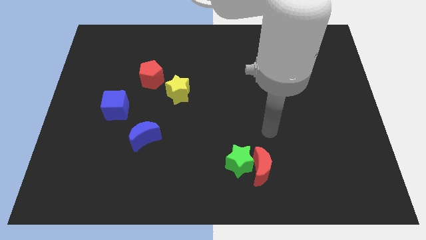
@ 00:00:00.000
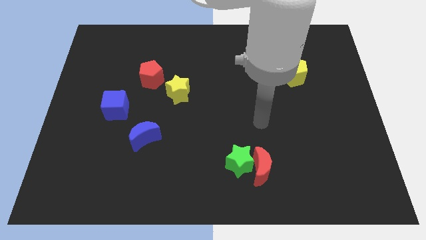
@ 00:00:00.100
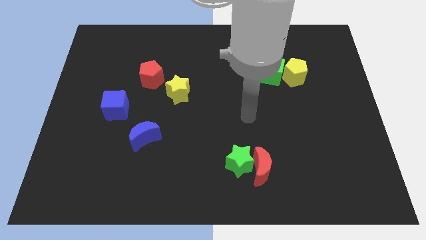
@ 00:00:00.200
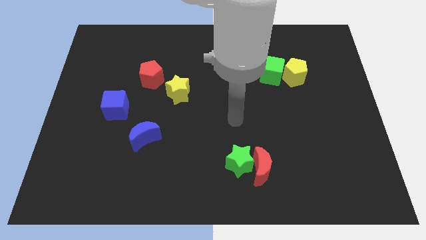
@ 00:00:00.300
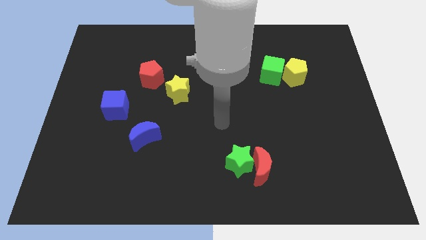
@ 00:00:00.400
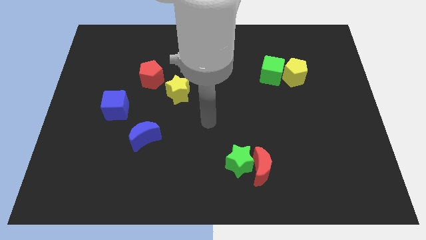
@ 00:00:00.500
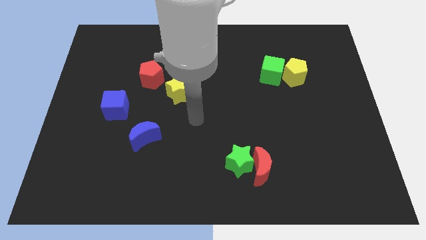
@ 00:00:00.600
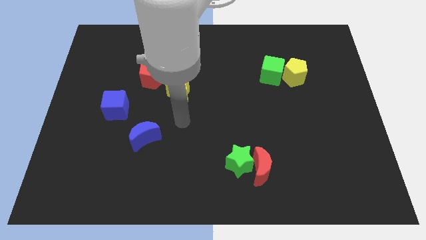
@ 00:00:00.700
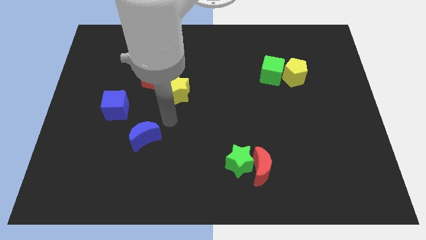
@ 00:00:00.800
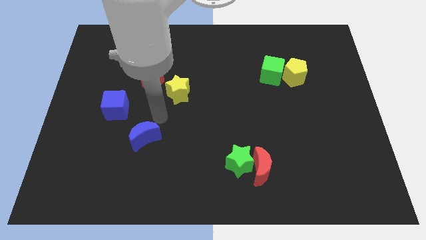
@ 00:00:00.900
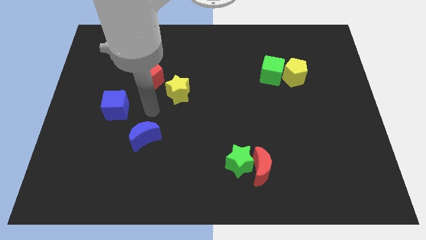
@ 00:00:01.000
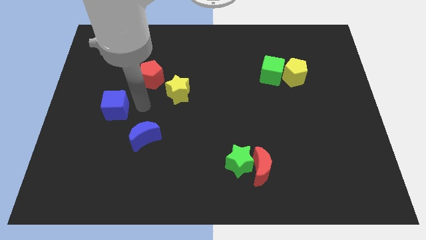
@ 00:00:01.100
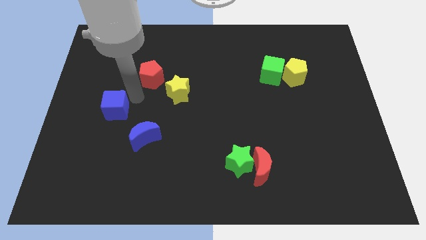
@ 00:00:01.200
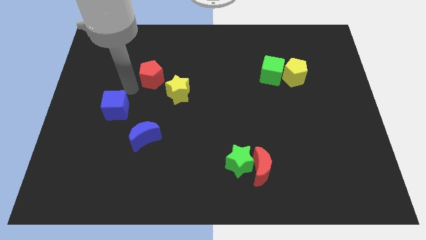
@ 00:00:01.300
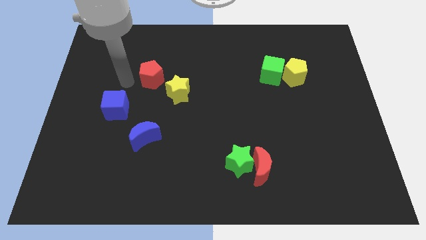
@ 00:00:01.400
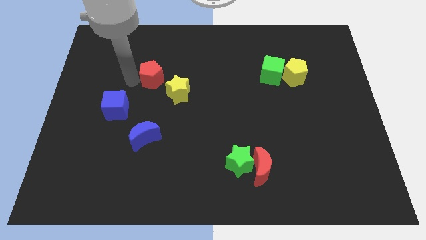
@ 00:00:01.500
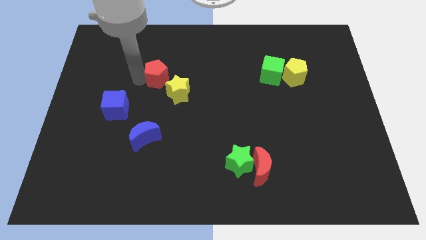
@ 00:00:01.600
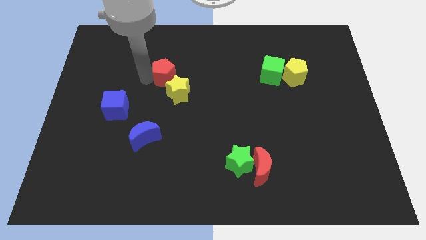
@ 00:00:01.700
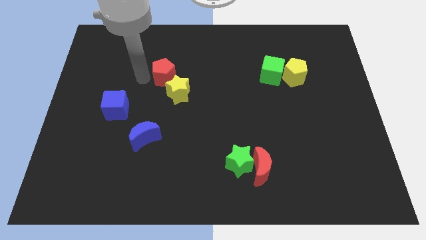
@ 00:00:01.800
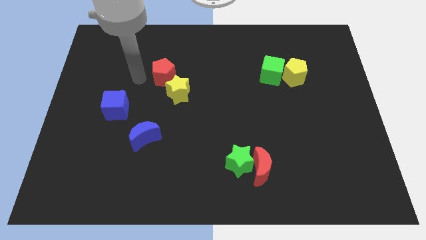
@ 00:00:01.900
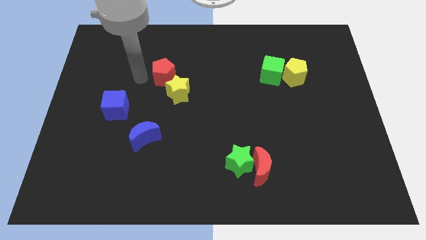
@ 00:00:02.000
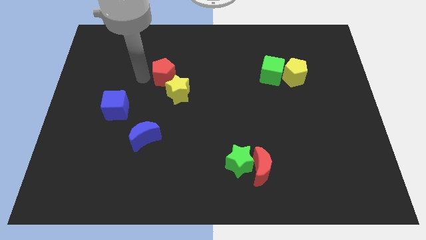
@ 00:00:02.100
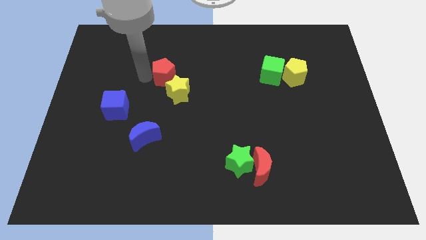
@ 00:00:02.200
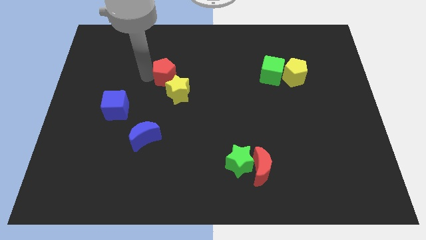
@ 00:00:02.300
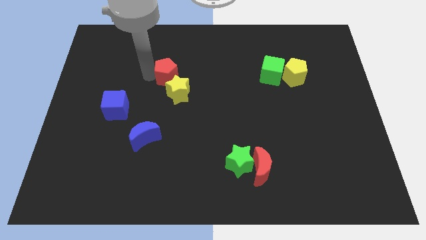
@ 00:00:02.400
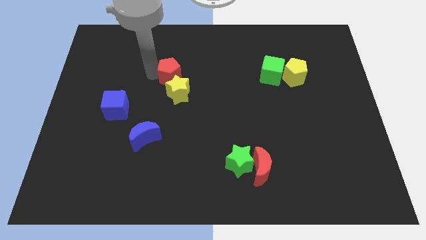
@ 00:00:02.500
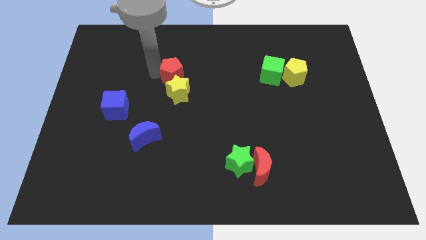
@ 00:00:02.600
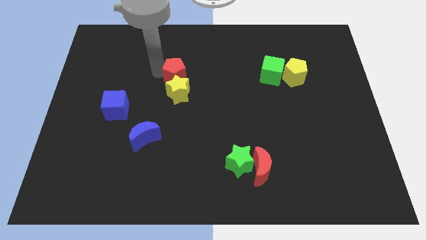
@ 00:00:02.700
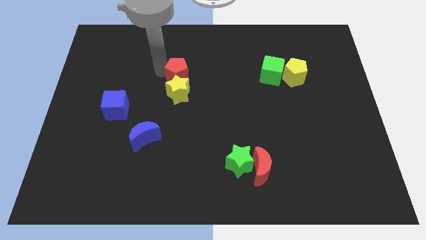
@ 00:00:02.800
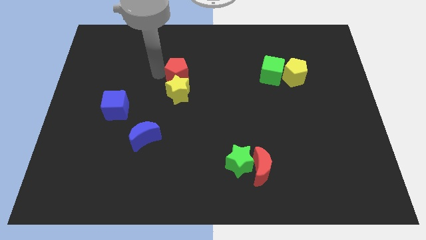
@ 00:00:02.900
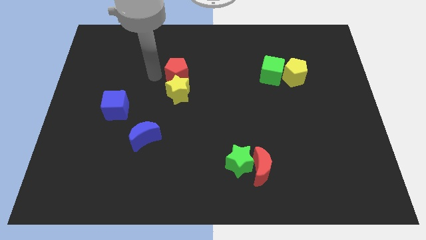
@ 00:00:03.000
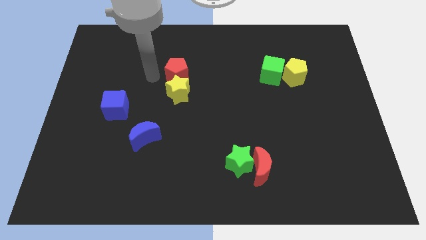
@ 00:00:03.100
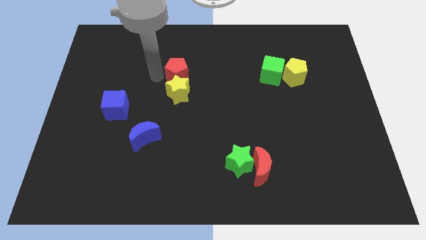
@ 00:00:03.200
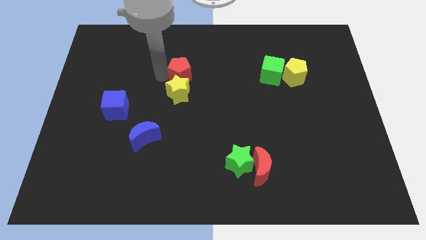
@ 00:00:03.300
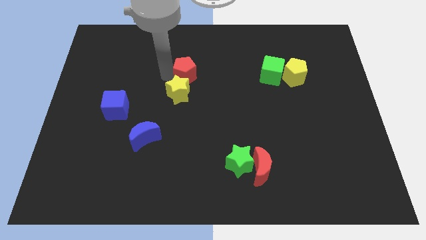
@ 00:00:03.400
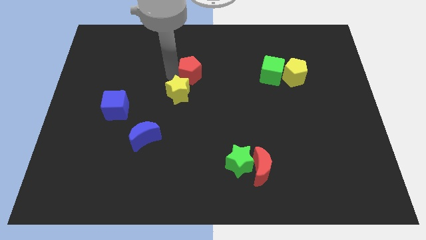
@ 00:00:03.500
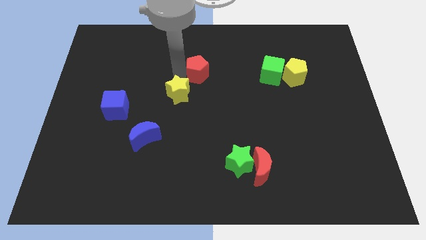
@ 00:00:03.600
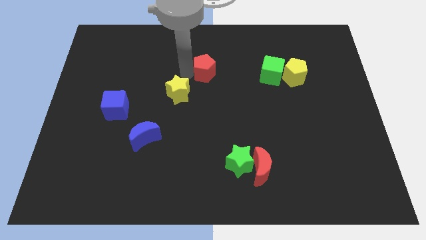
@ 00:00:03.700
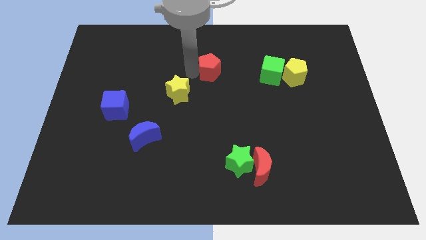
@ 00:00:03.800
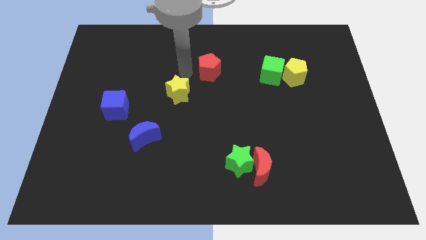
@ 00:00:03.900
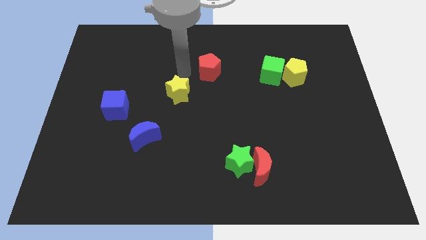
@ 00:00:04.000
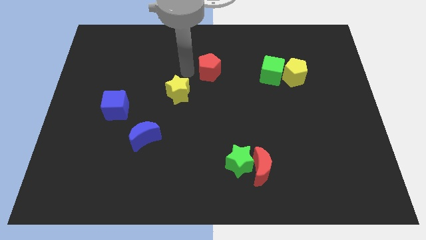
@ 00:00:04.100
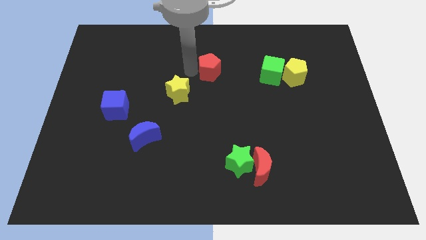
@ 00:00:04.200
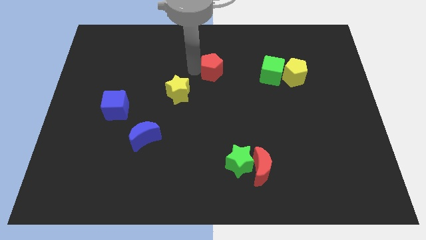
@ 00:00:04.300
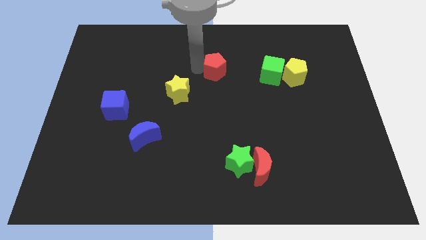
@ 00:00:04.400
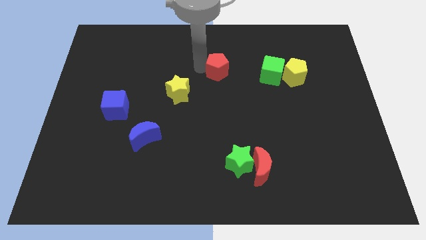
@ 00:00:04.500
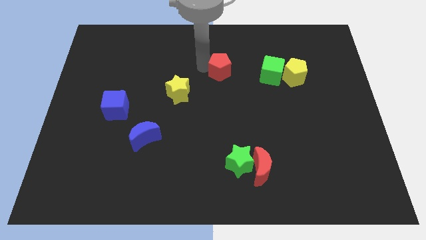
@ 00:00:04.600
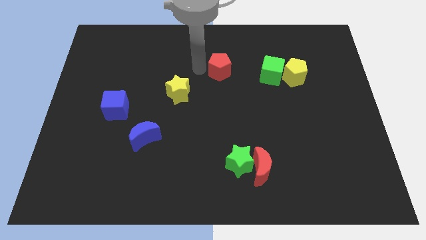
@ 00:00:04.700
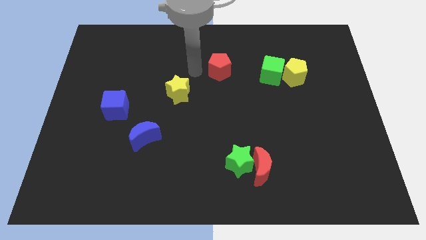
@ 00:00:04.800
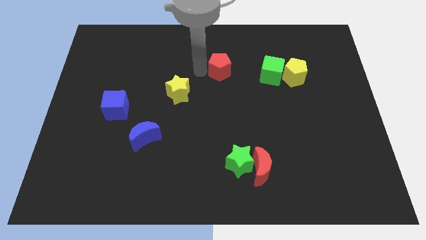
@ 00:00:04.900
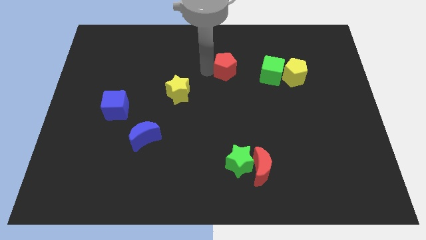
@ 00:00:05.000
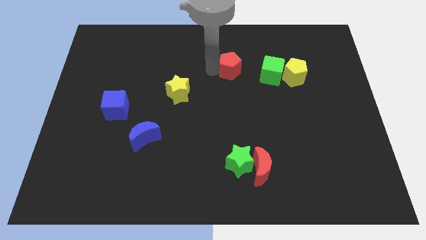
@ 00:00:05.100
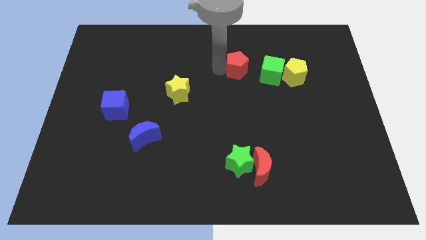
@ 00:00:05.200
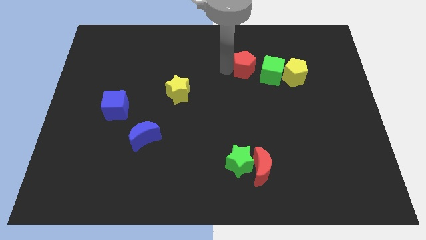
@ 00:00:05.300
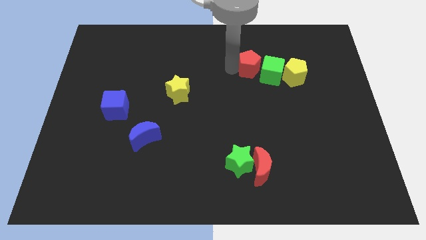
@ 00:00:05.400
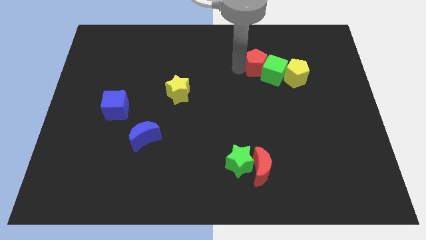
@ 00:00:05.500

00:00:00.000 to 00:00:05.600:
slide the red pentagon to the top left side of the yellow pentagon

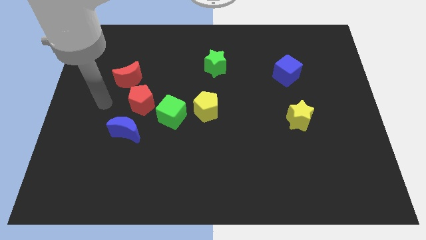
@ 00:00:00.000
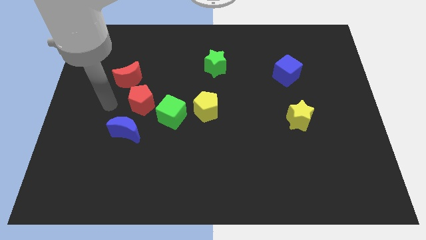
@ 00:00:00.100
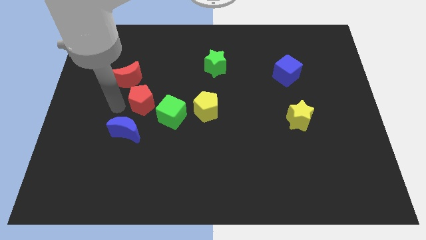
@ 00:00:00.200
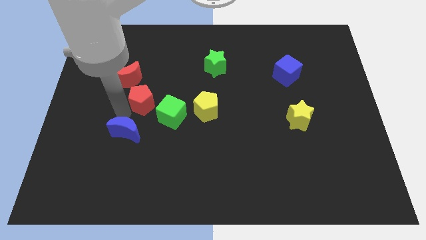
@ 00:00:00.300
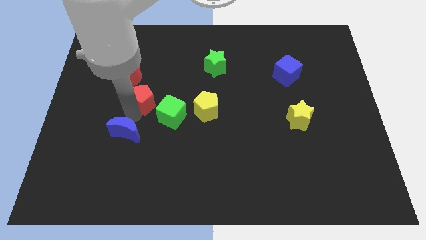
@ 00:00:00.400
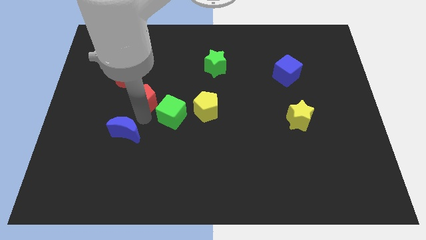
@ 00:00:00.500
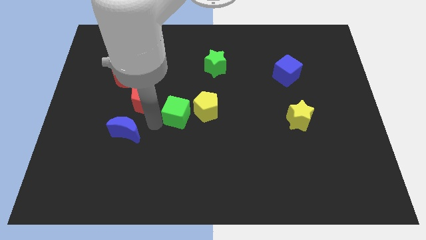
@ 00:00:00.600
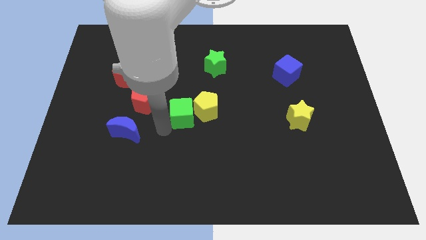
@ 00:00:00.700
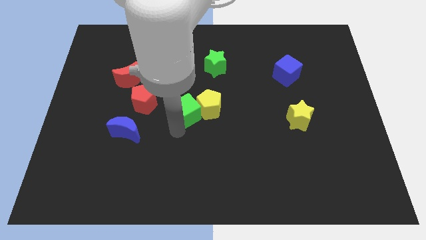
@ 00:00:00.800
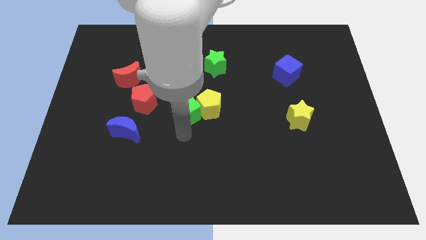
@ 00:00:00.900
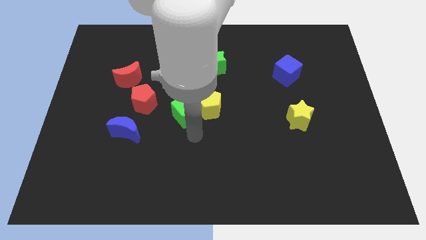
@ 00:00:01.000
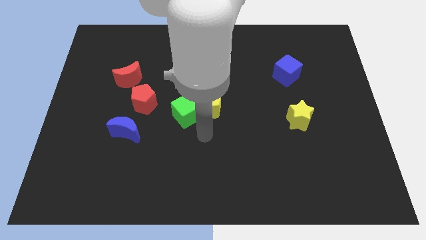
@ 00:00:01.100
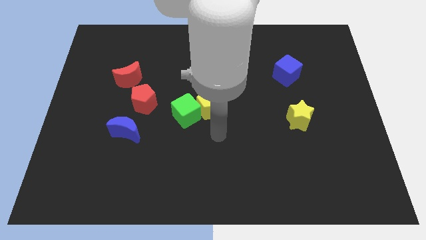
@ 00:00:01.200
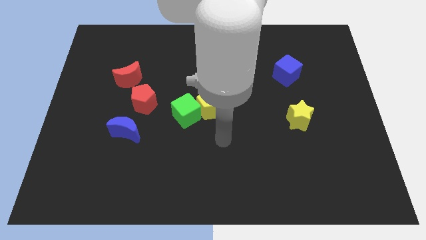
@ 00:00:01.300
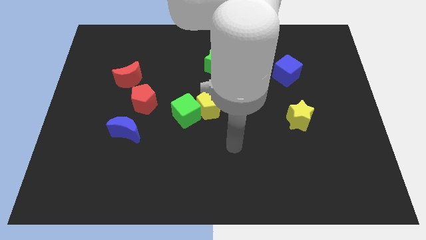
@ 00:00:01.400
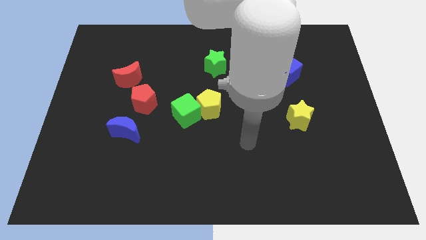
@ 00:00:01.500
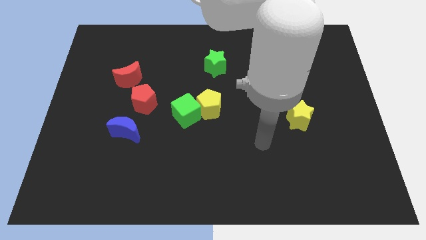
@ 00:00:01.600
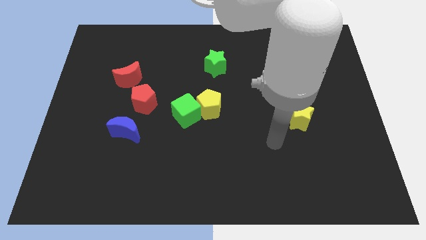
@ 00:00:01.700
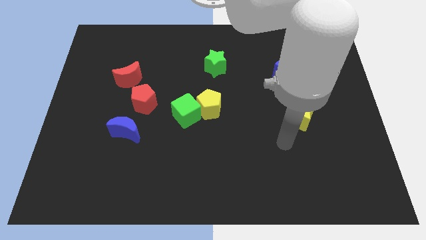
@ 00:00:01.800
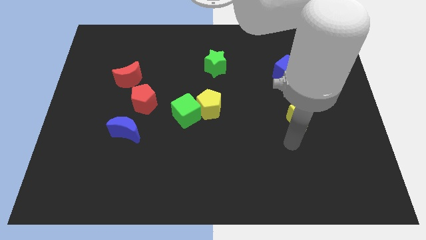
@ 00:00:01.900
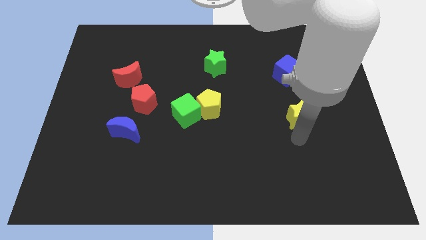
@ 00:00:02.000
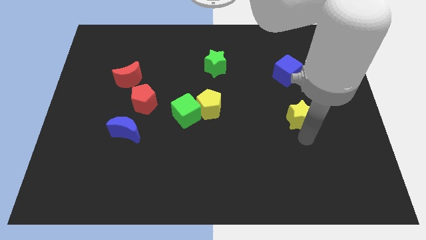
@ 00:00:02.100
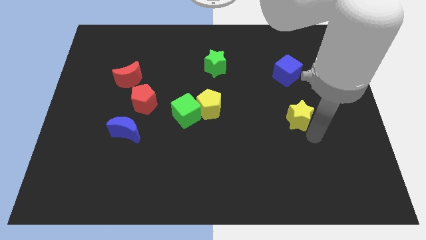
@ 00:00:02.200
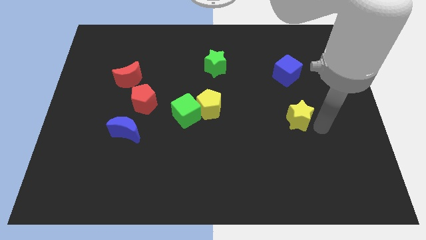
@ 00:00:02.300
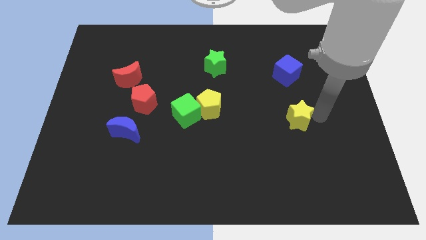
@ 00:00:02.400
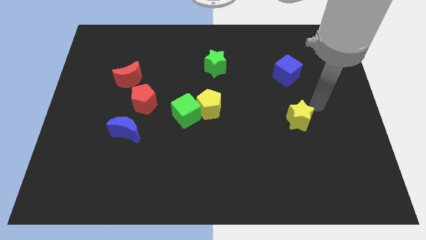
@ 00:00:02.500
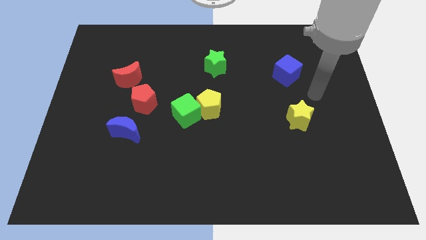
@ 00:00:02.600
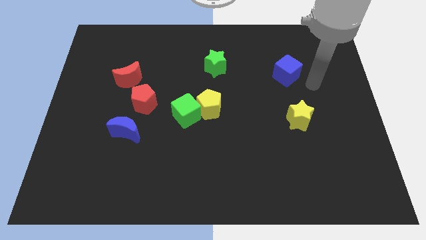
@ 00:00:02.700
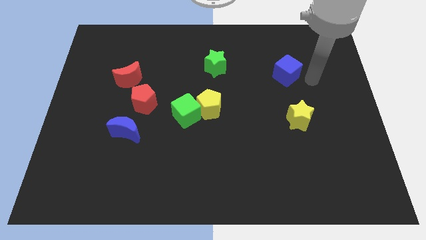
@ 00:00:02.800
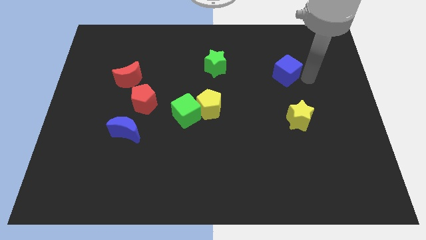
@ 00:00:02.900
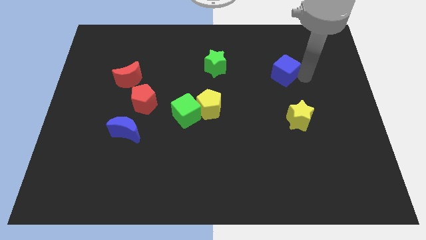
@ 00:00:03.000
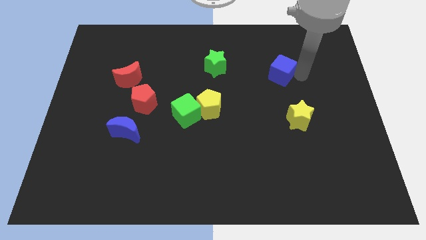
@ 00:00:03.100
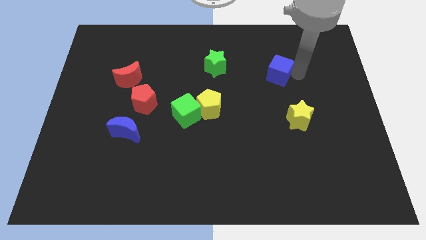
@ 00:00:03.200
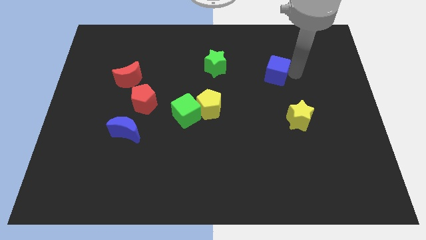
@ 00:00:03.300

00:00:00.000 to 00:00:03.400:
move the blue cube right of the green star
